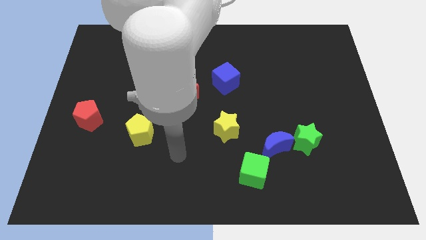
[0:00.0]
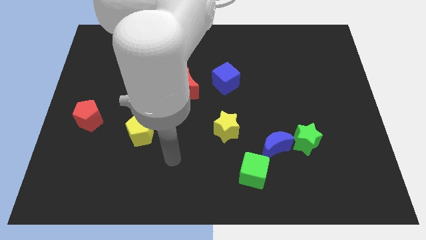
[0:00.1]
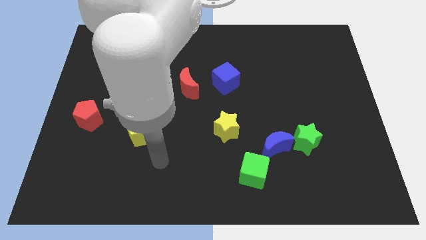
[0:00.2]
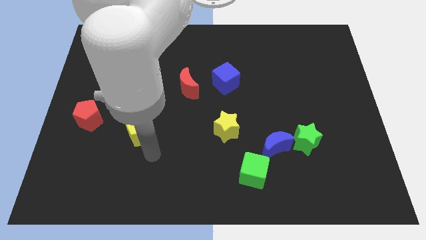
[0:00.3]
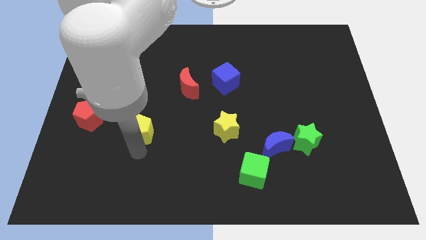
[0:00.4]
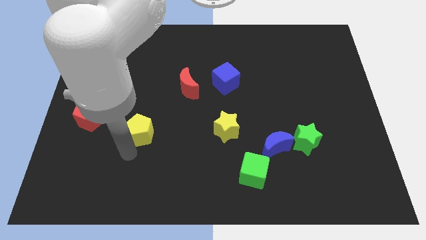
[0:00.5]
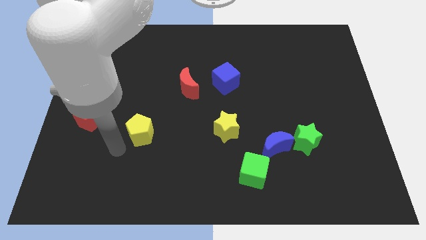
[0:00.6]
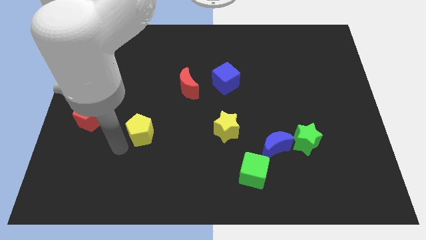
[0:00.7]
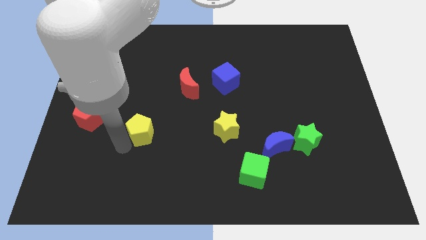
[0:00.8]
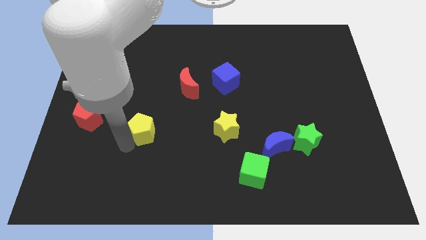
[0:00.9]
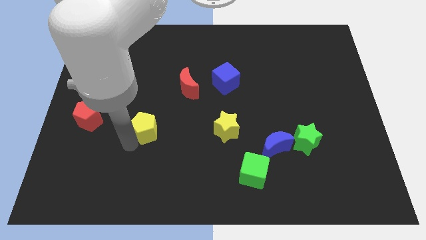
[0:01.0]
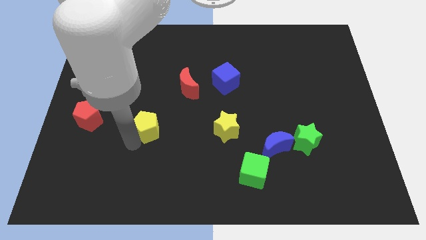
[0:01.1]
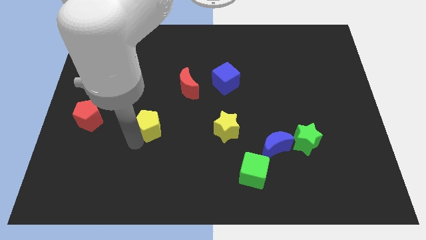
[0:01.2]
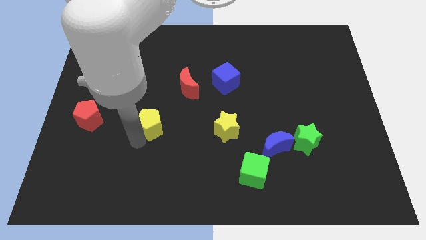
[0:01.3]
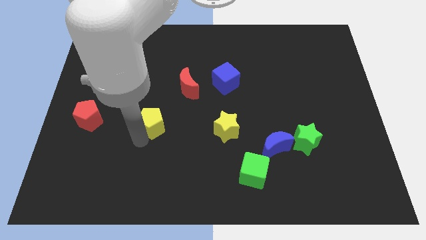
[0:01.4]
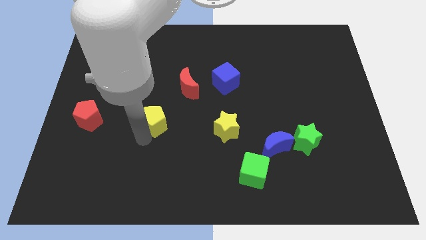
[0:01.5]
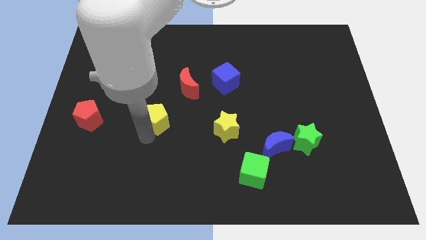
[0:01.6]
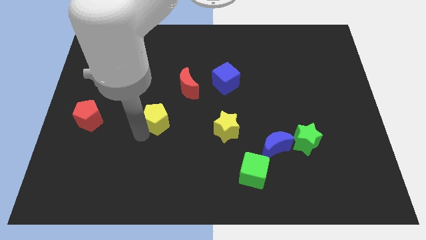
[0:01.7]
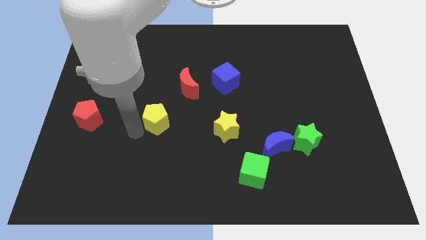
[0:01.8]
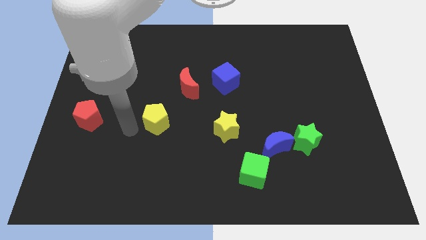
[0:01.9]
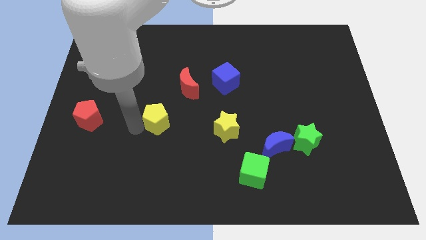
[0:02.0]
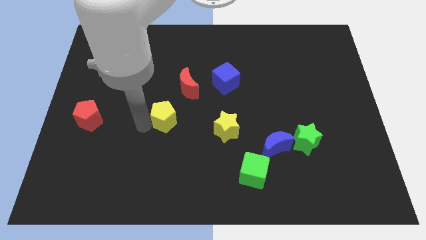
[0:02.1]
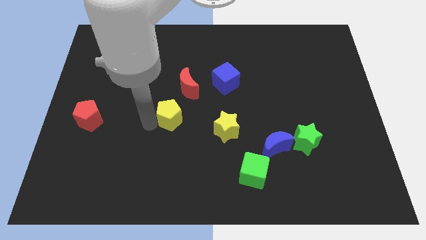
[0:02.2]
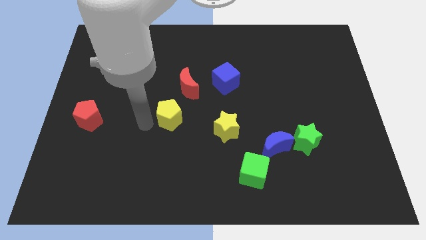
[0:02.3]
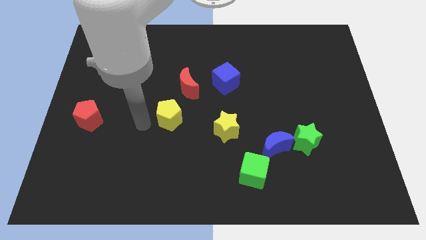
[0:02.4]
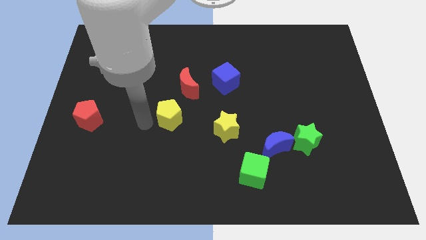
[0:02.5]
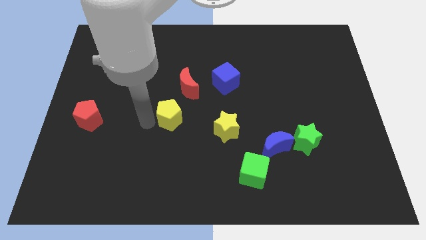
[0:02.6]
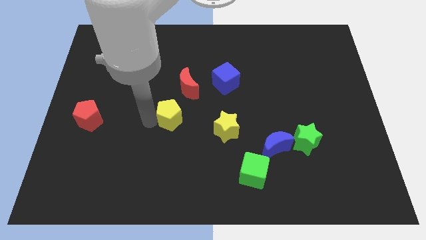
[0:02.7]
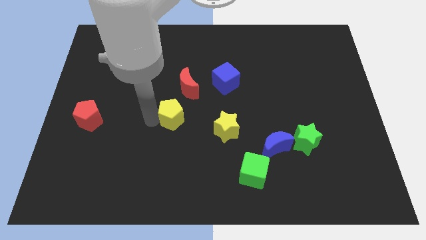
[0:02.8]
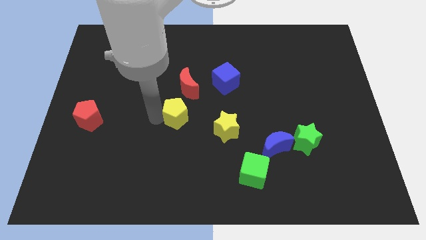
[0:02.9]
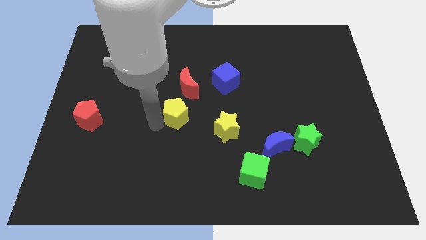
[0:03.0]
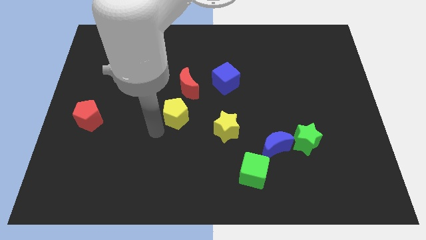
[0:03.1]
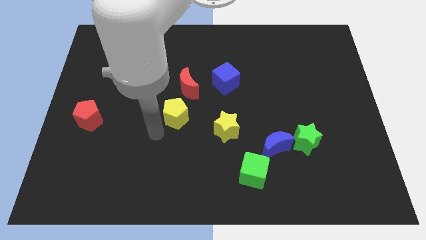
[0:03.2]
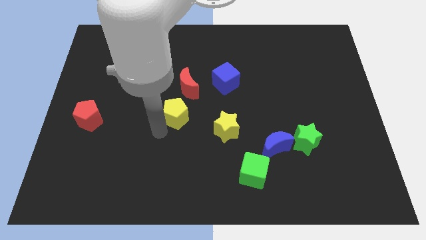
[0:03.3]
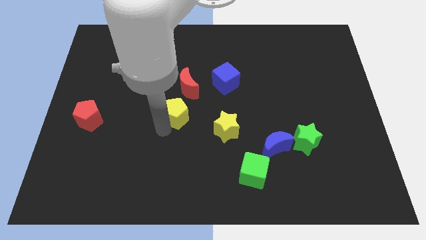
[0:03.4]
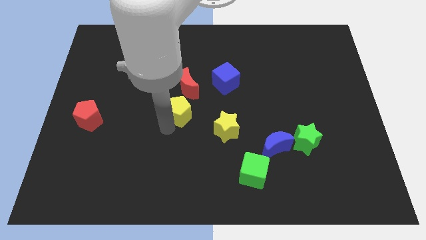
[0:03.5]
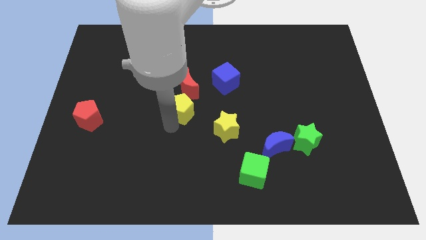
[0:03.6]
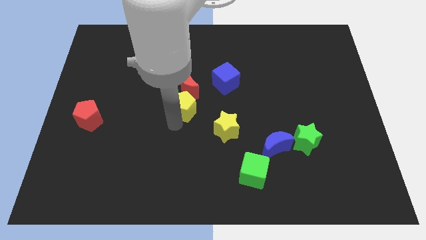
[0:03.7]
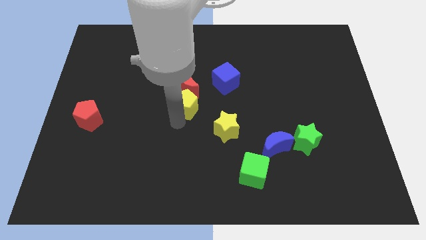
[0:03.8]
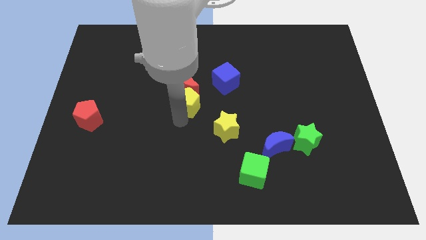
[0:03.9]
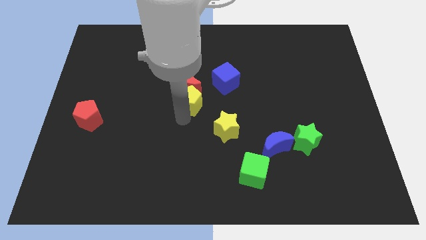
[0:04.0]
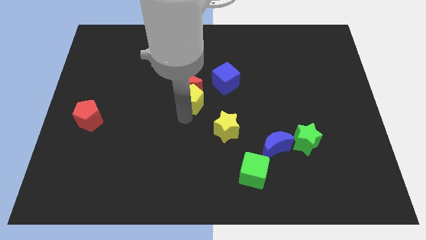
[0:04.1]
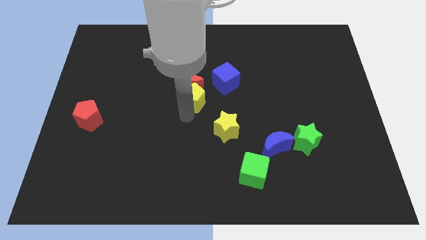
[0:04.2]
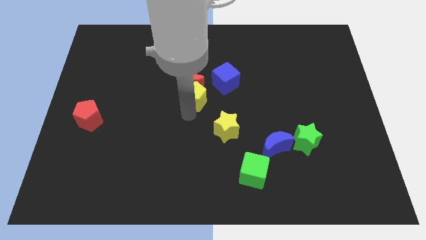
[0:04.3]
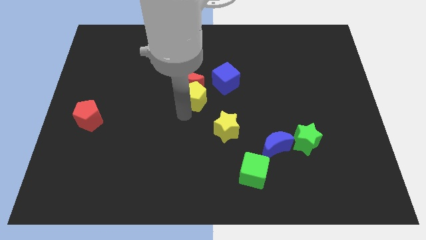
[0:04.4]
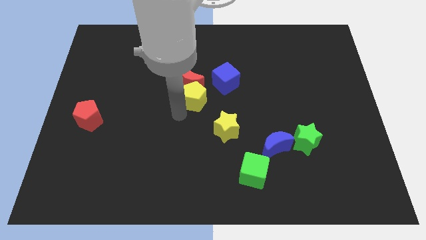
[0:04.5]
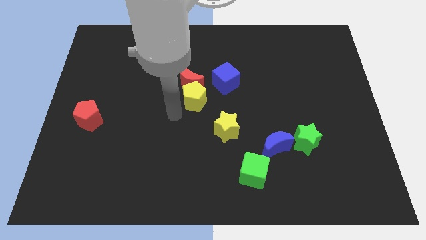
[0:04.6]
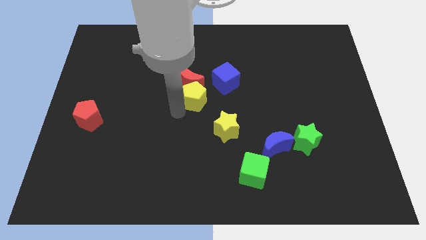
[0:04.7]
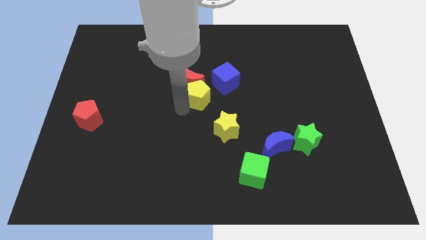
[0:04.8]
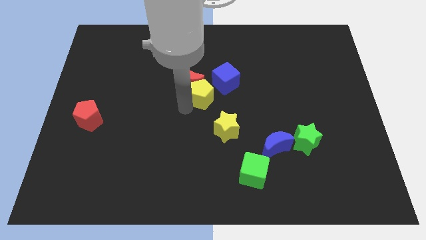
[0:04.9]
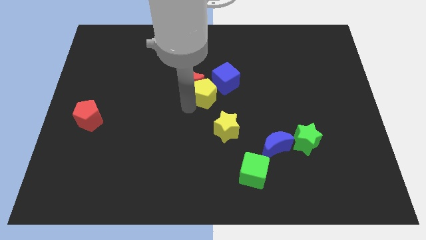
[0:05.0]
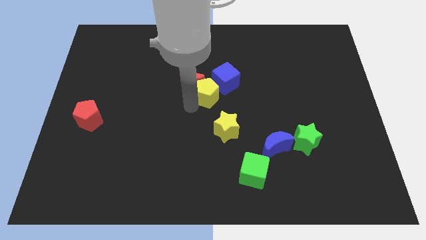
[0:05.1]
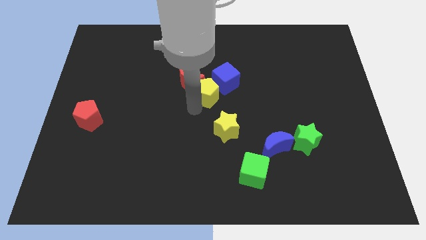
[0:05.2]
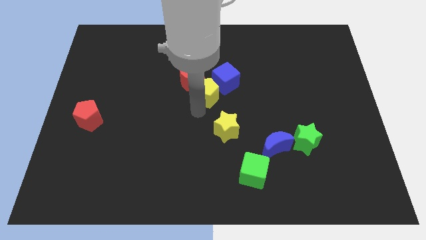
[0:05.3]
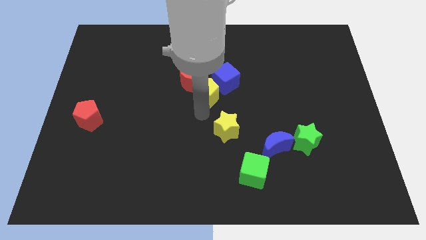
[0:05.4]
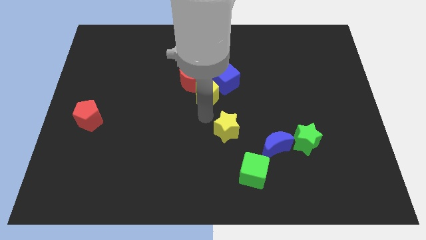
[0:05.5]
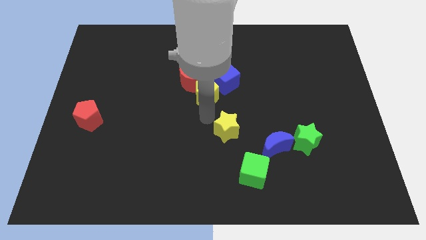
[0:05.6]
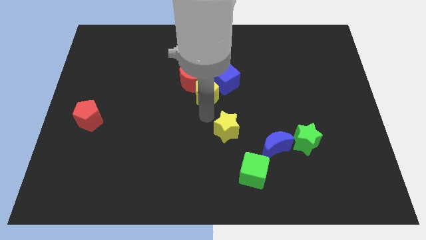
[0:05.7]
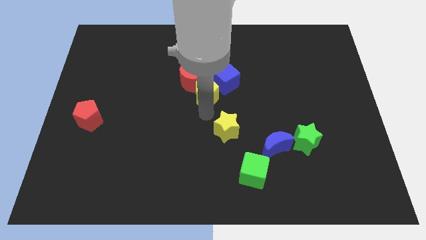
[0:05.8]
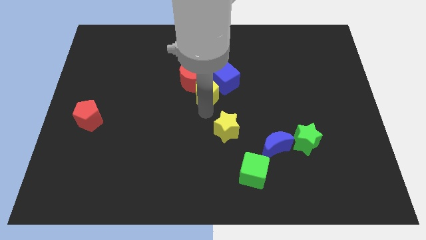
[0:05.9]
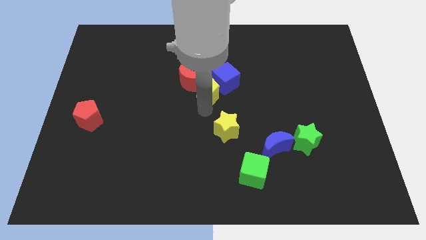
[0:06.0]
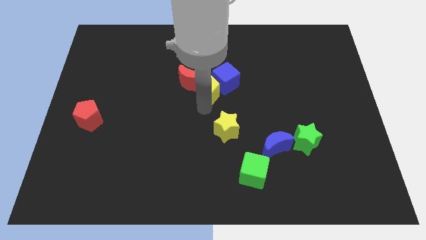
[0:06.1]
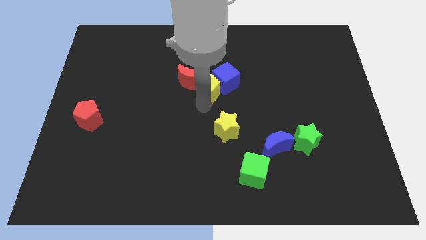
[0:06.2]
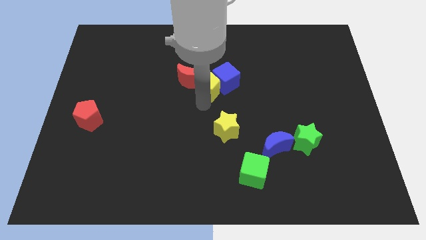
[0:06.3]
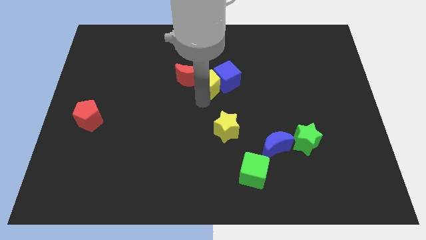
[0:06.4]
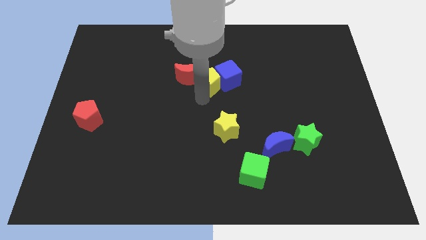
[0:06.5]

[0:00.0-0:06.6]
put the yellow pentagon to the top left of the blue cube
